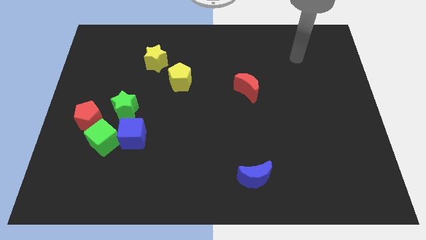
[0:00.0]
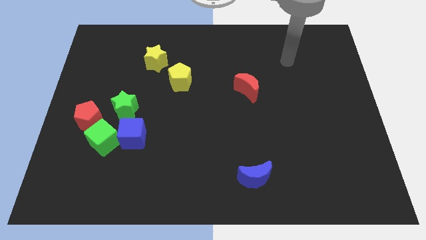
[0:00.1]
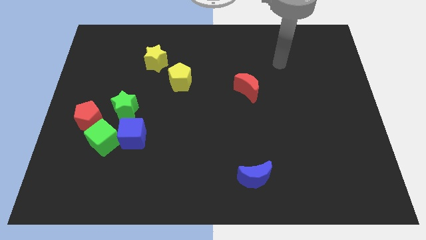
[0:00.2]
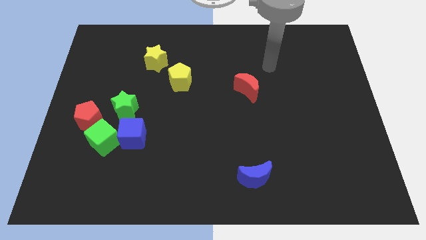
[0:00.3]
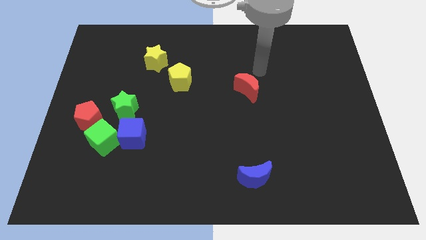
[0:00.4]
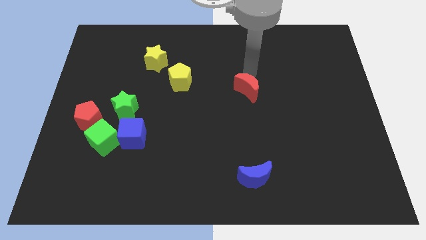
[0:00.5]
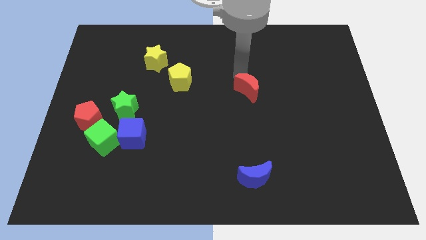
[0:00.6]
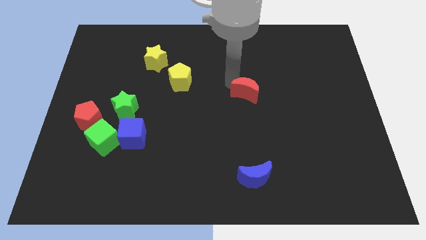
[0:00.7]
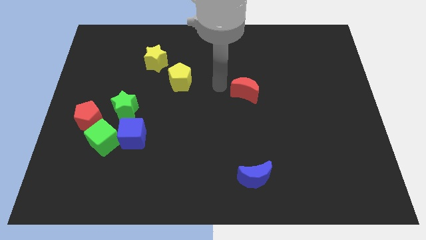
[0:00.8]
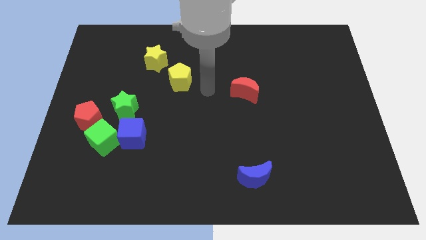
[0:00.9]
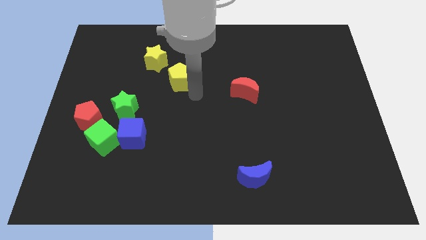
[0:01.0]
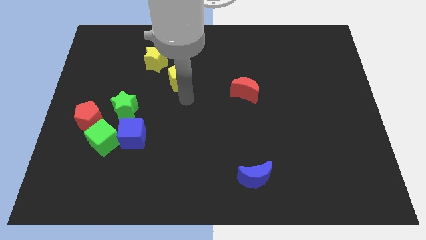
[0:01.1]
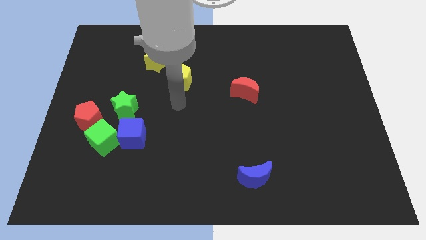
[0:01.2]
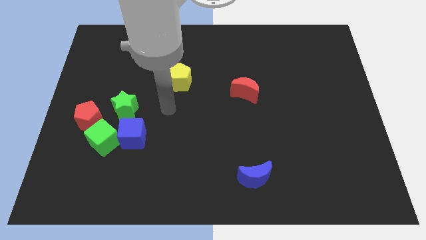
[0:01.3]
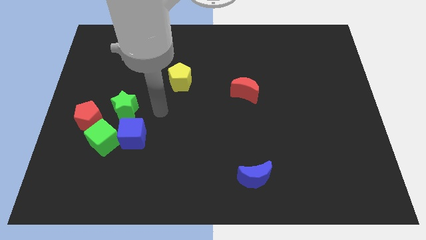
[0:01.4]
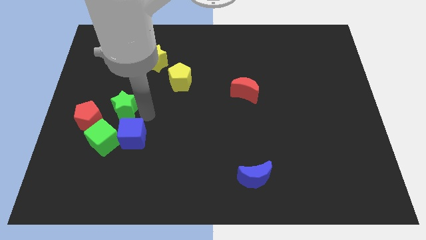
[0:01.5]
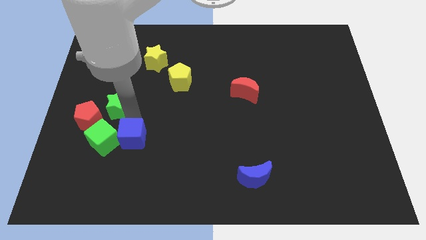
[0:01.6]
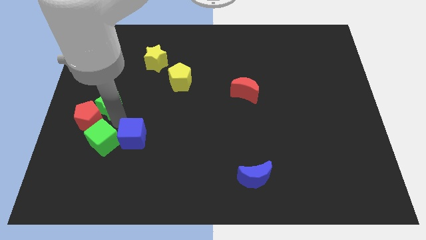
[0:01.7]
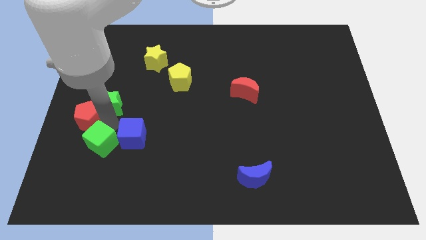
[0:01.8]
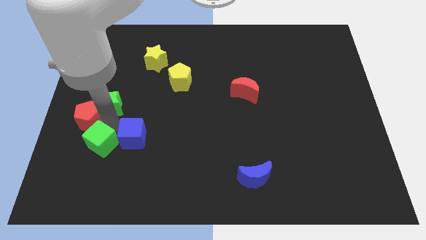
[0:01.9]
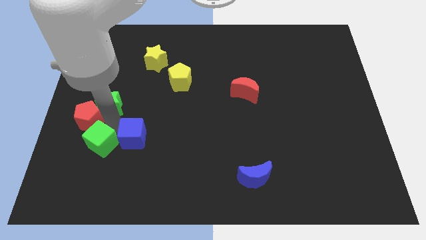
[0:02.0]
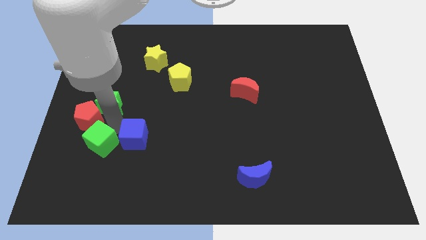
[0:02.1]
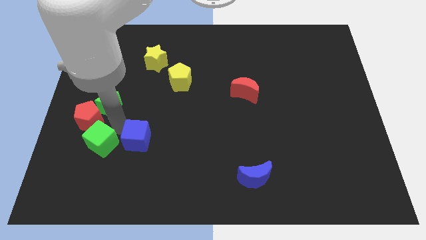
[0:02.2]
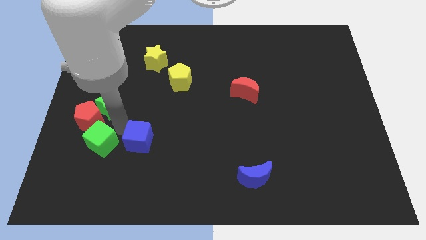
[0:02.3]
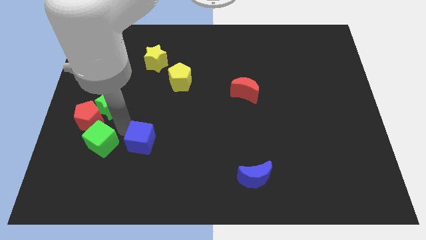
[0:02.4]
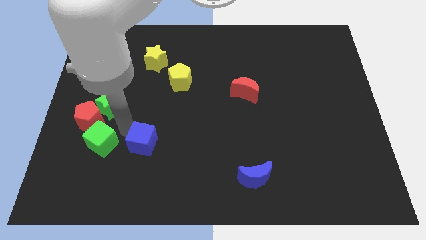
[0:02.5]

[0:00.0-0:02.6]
separate the blue cube from the green cube and green star

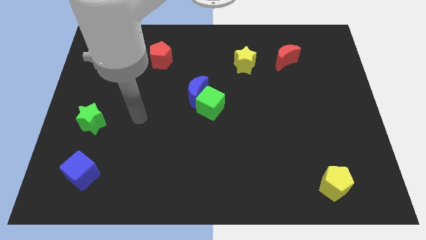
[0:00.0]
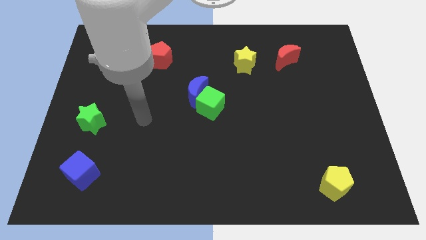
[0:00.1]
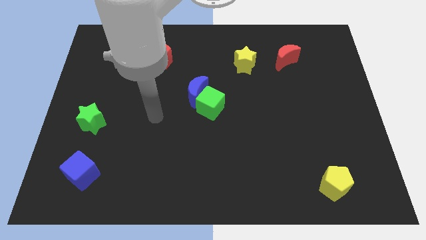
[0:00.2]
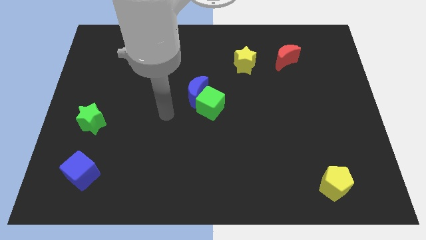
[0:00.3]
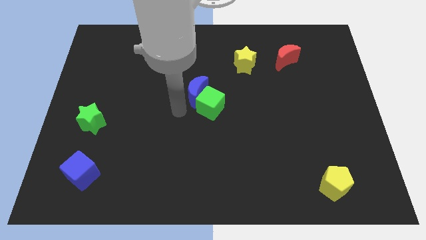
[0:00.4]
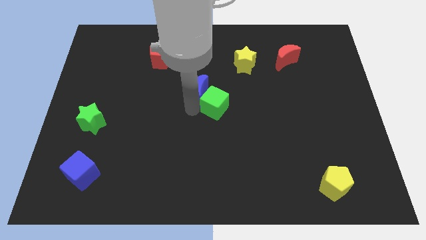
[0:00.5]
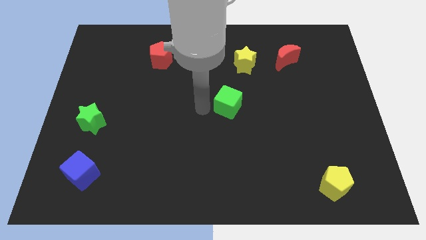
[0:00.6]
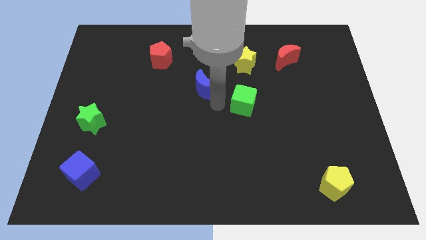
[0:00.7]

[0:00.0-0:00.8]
separate the blue moon from the green cube

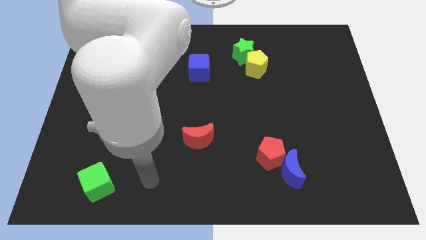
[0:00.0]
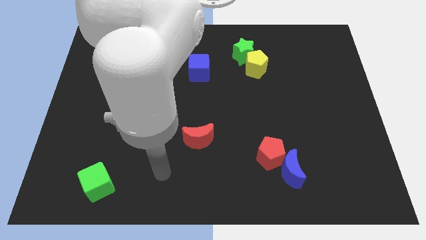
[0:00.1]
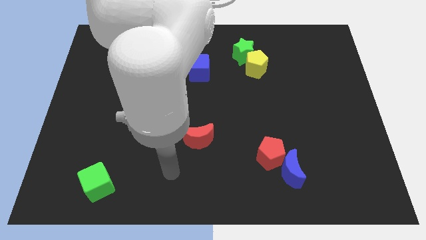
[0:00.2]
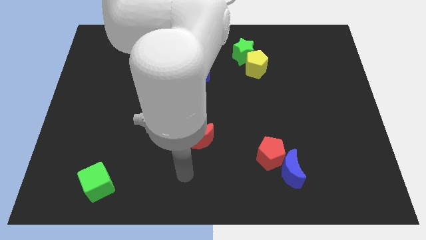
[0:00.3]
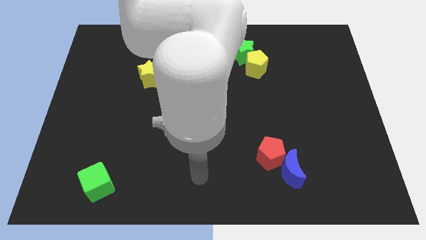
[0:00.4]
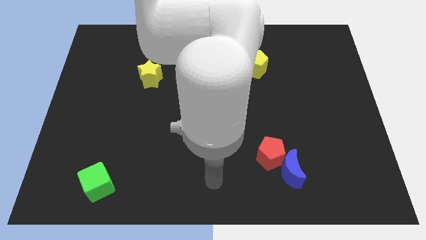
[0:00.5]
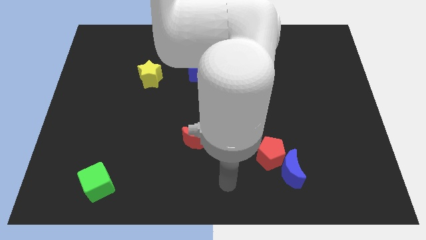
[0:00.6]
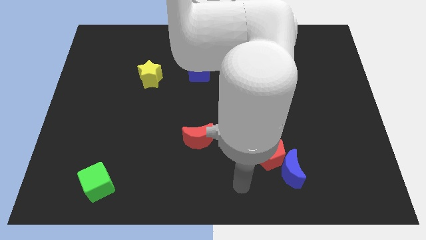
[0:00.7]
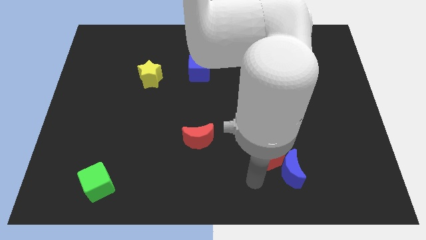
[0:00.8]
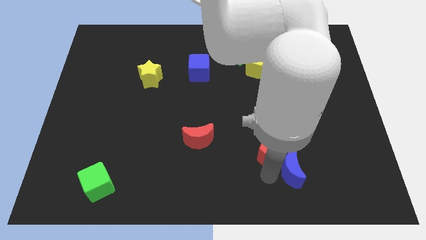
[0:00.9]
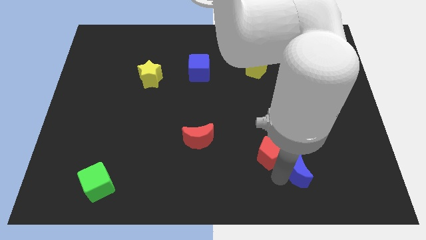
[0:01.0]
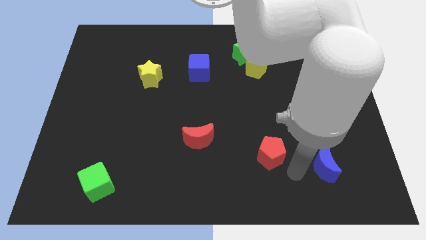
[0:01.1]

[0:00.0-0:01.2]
separate the red pentagon from the blue moon

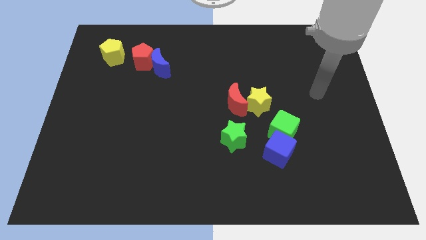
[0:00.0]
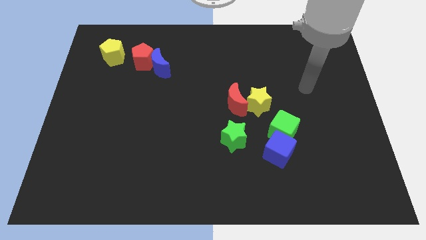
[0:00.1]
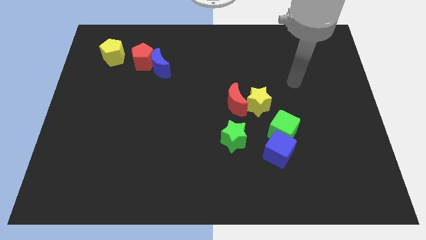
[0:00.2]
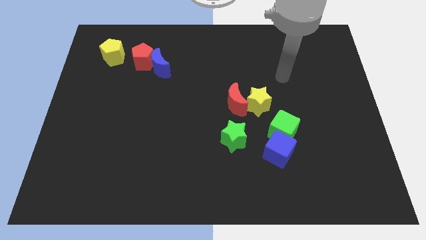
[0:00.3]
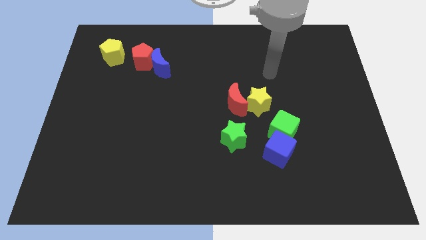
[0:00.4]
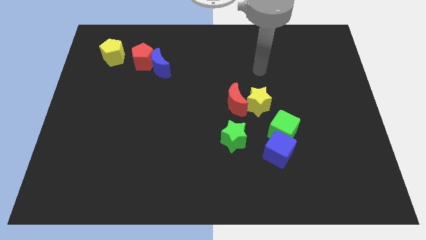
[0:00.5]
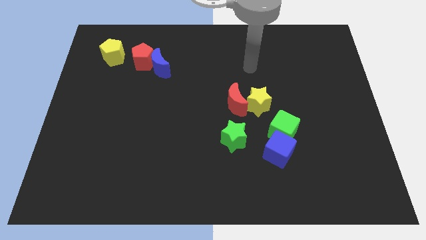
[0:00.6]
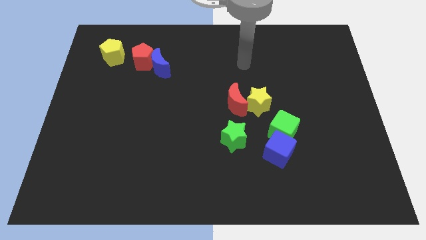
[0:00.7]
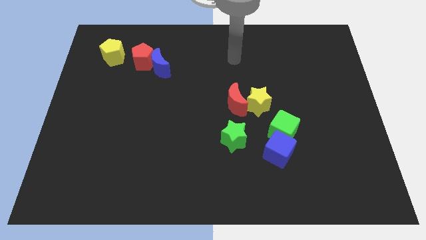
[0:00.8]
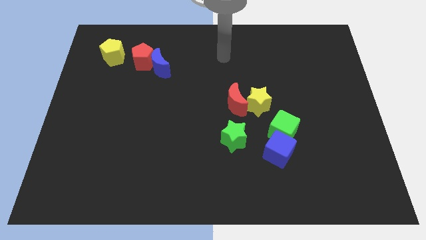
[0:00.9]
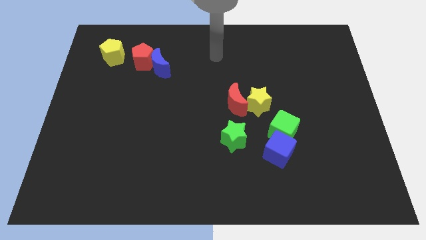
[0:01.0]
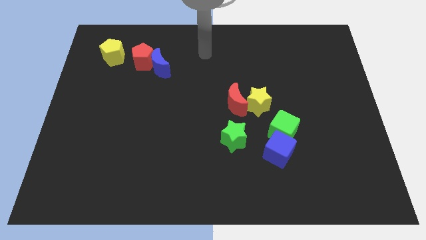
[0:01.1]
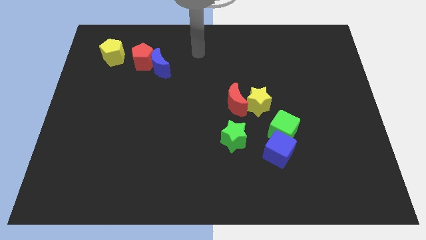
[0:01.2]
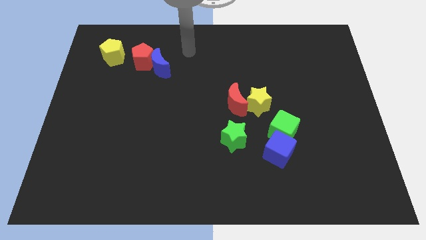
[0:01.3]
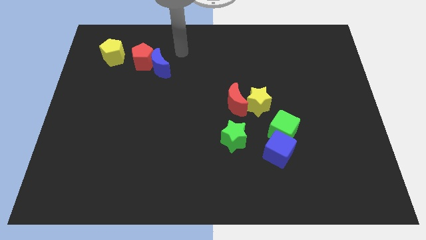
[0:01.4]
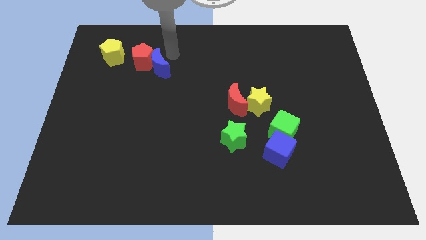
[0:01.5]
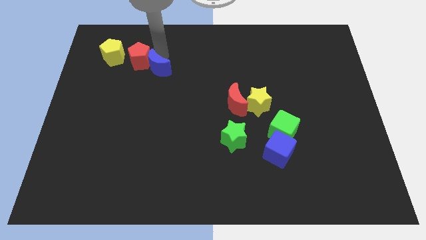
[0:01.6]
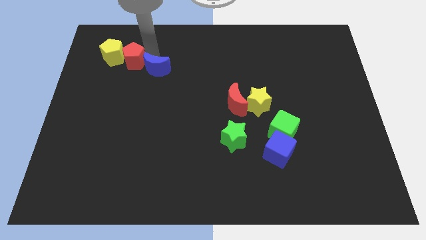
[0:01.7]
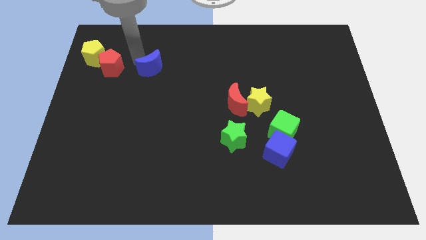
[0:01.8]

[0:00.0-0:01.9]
move the blue moon away from the red pentagon

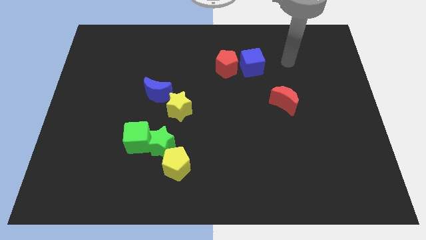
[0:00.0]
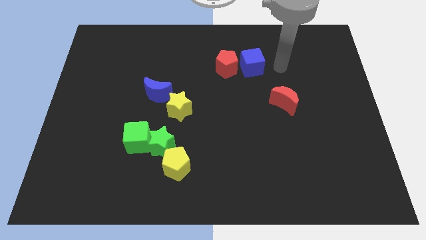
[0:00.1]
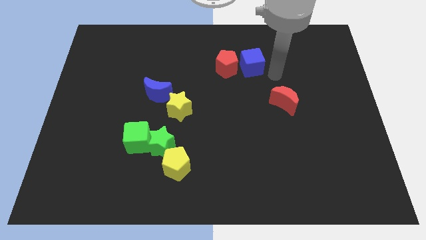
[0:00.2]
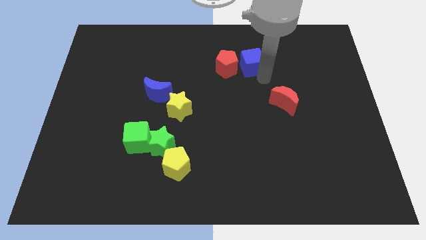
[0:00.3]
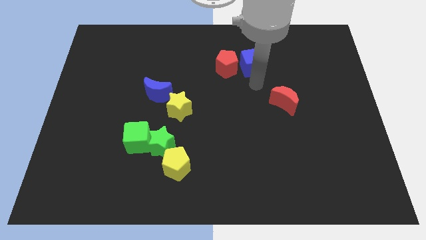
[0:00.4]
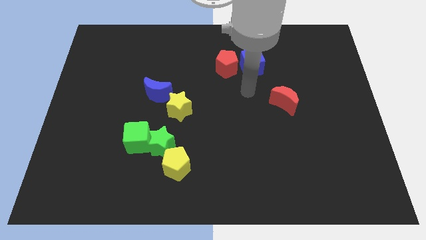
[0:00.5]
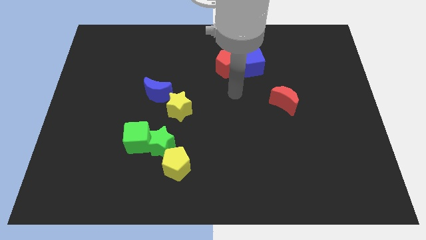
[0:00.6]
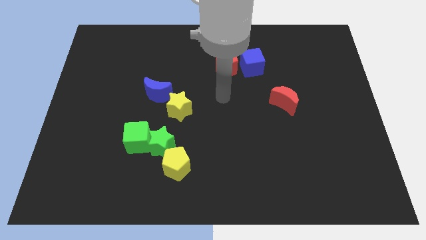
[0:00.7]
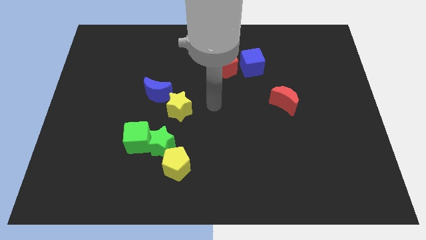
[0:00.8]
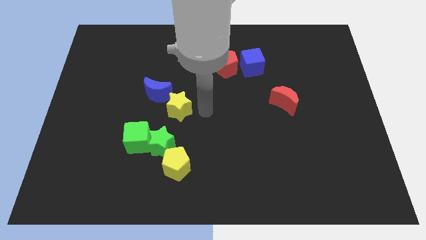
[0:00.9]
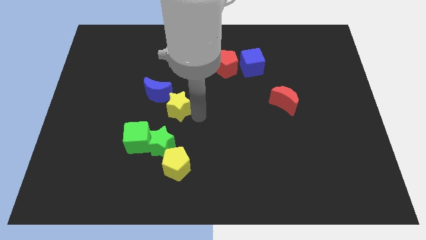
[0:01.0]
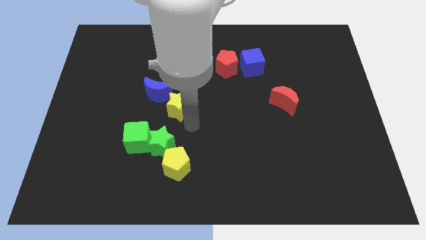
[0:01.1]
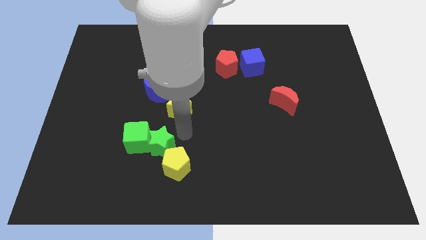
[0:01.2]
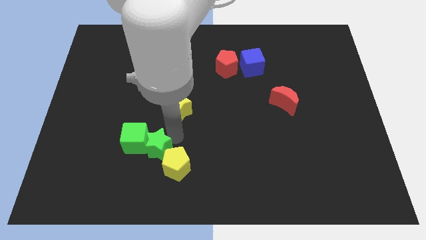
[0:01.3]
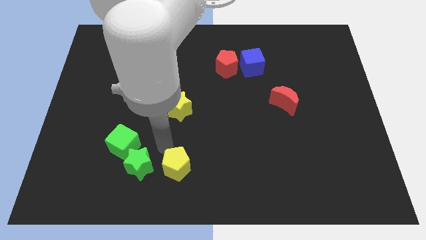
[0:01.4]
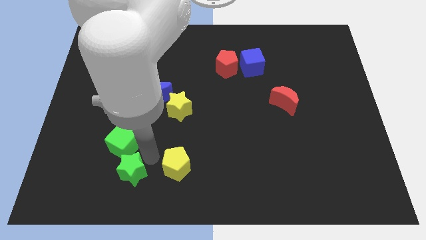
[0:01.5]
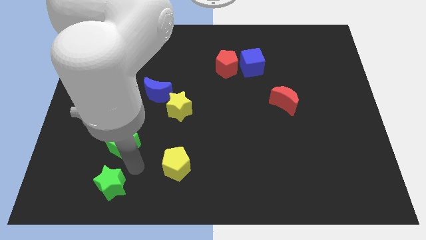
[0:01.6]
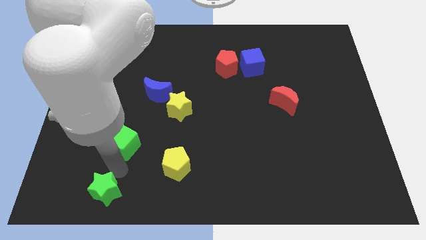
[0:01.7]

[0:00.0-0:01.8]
pull the green cube apart from the green star

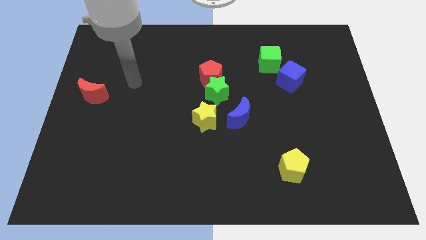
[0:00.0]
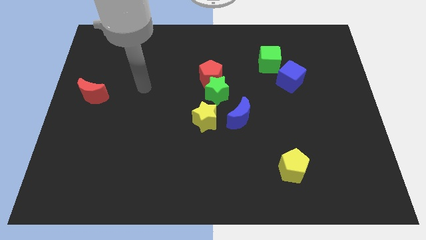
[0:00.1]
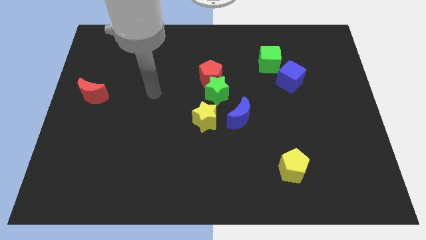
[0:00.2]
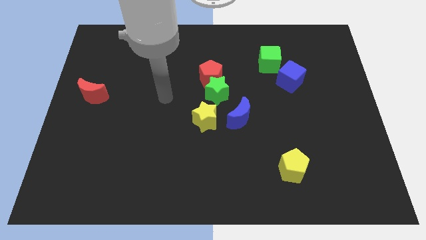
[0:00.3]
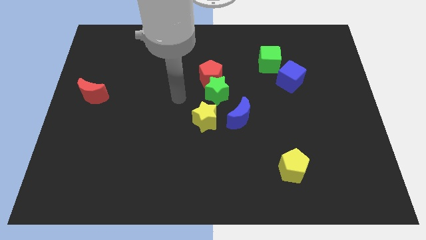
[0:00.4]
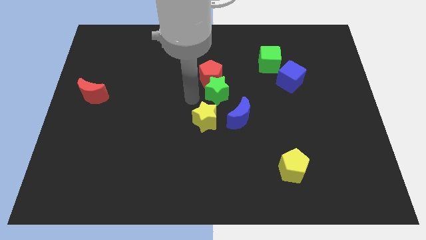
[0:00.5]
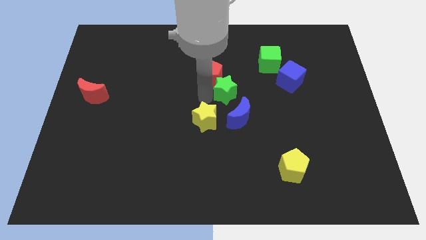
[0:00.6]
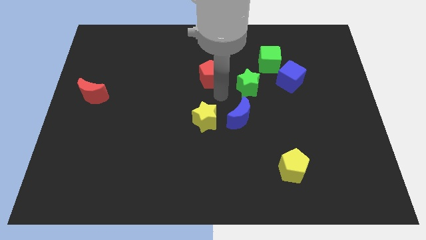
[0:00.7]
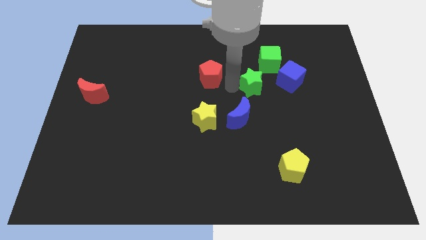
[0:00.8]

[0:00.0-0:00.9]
separate the red pentagon from the green star

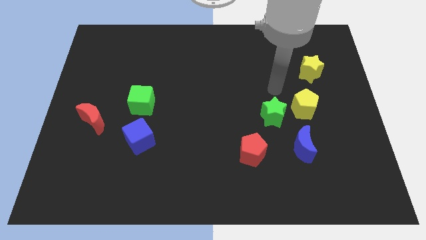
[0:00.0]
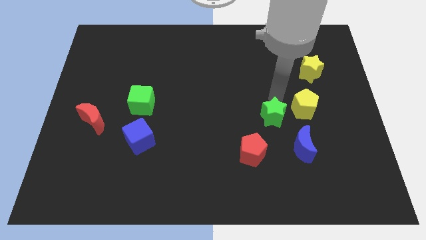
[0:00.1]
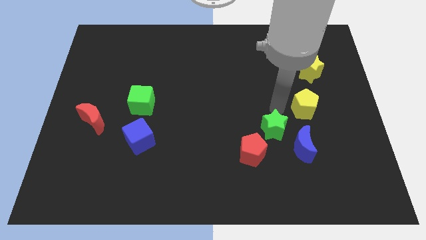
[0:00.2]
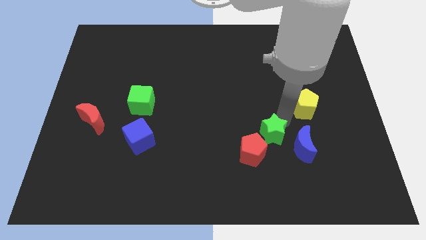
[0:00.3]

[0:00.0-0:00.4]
pull the yellow pentagon apart from the green star
